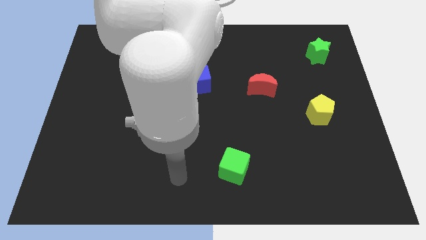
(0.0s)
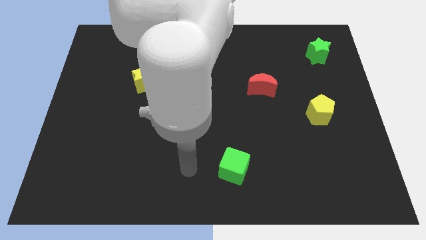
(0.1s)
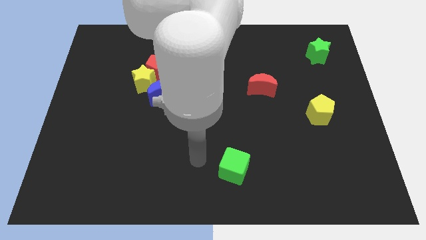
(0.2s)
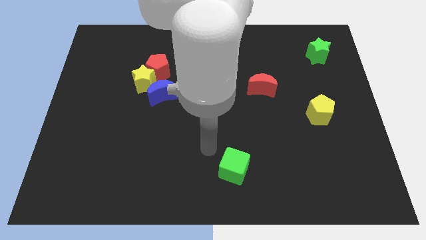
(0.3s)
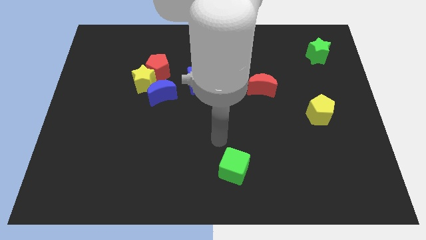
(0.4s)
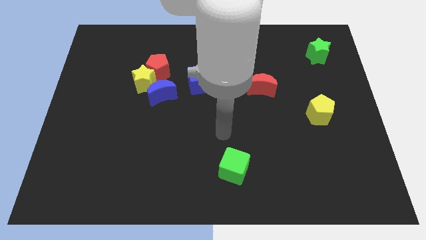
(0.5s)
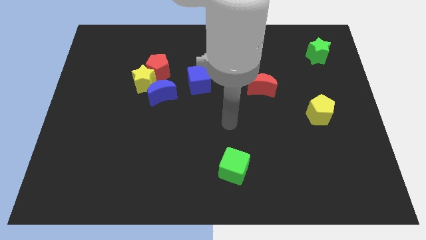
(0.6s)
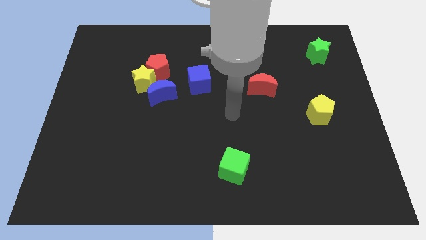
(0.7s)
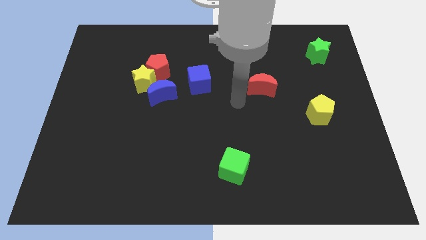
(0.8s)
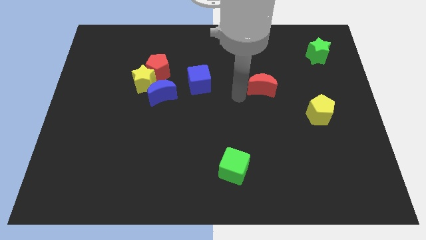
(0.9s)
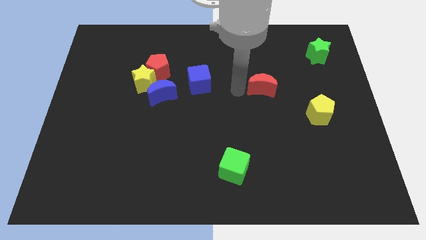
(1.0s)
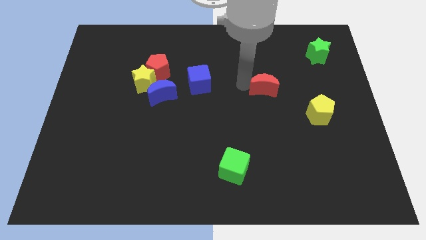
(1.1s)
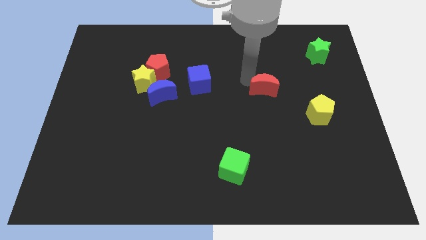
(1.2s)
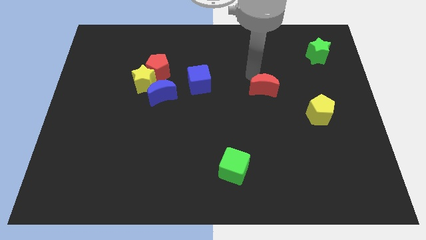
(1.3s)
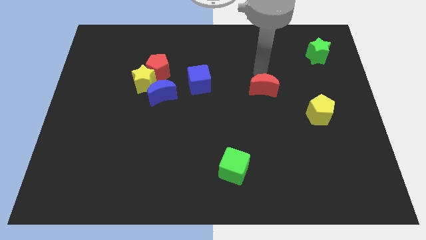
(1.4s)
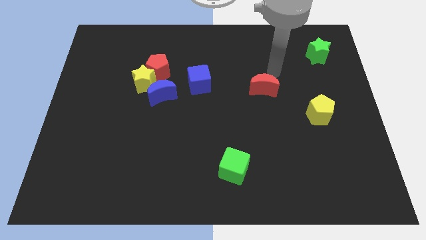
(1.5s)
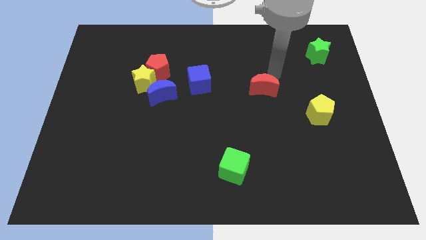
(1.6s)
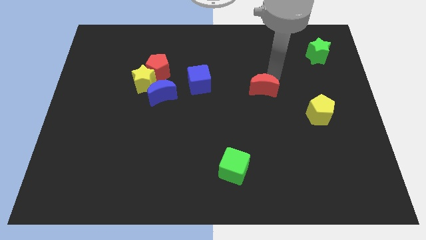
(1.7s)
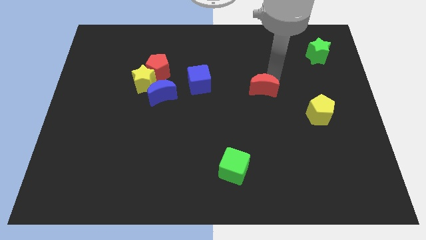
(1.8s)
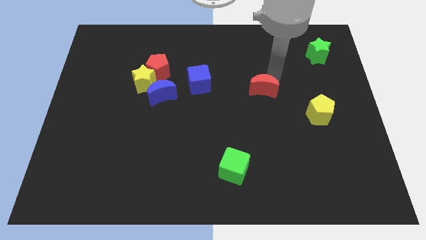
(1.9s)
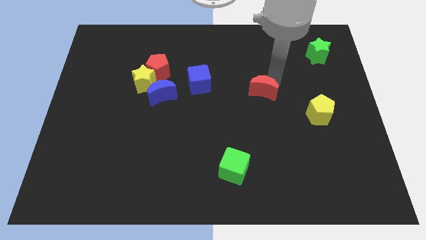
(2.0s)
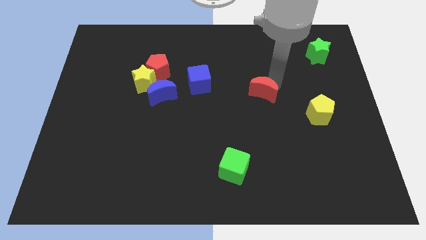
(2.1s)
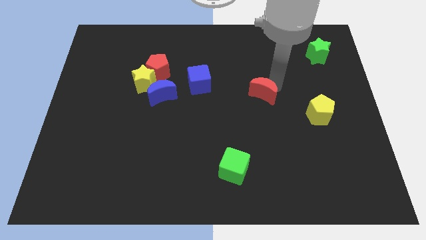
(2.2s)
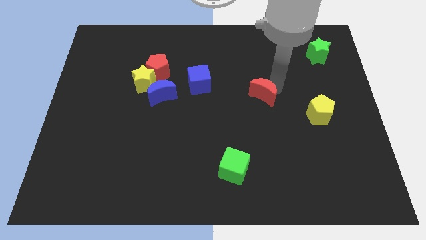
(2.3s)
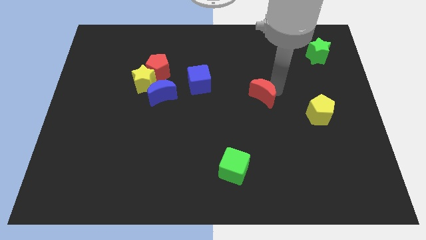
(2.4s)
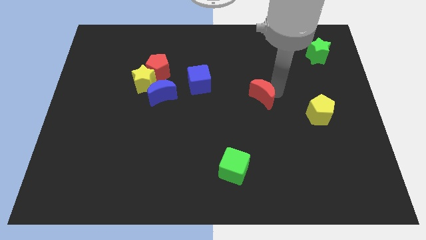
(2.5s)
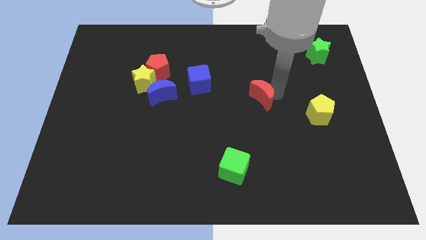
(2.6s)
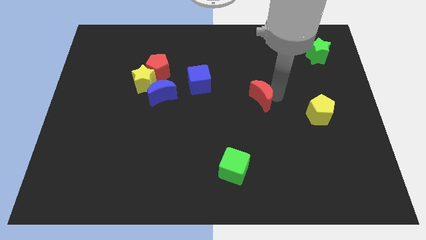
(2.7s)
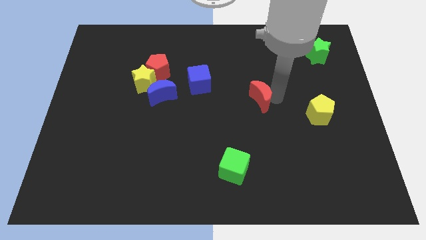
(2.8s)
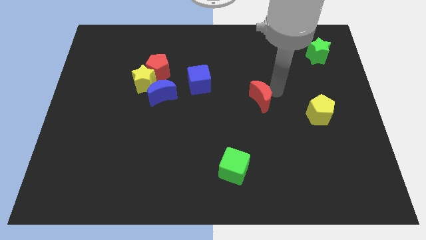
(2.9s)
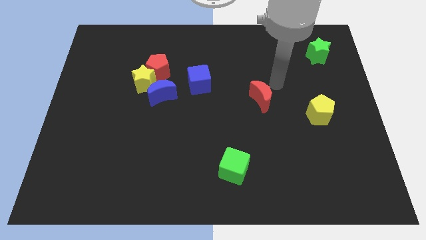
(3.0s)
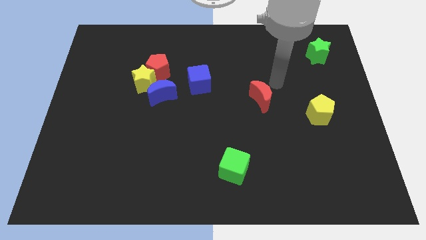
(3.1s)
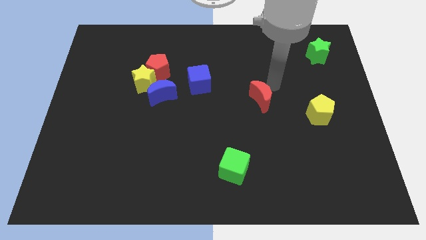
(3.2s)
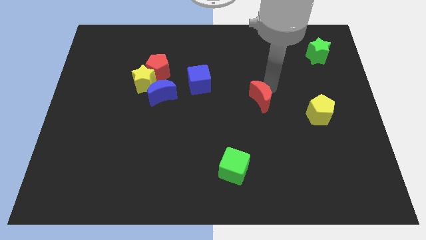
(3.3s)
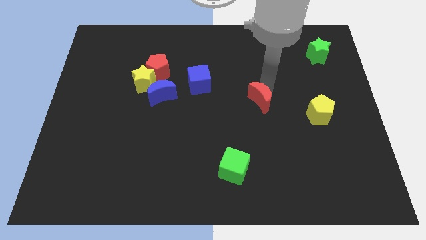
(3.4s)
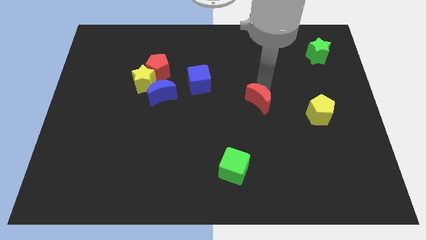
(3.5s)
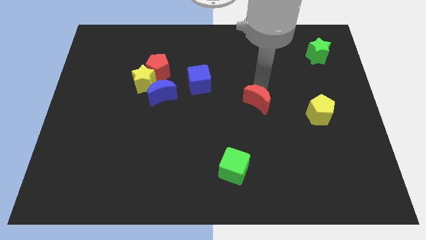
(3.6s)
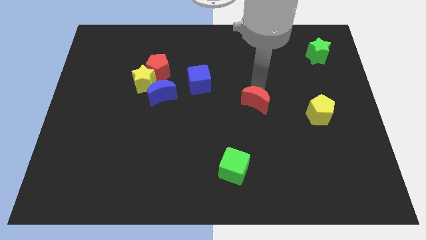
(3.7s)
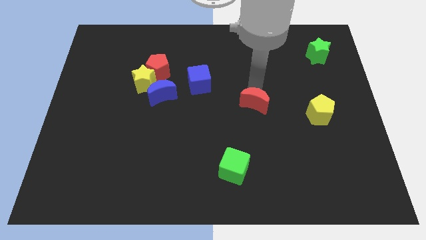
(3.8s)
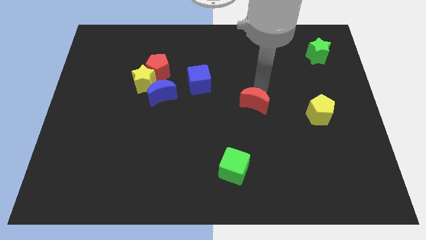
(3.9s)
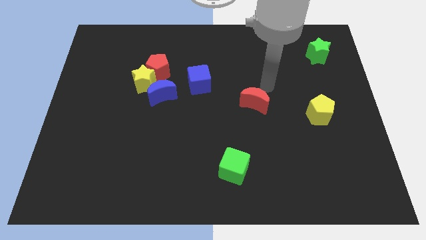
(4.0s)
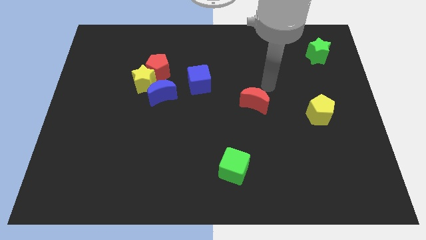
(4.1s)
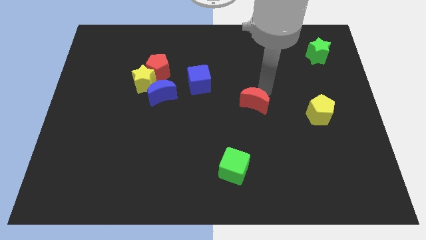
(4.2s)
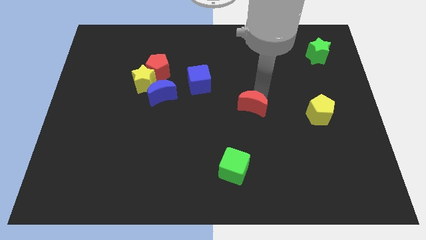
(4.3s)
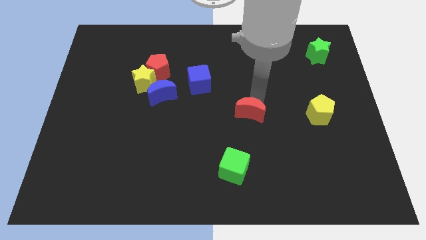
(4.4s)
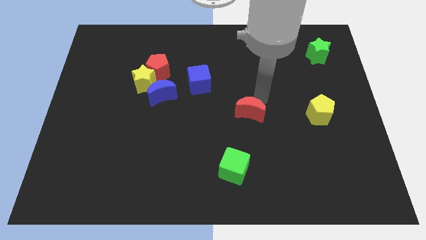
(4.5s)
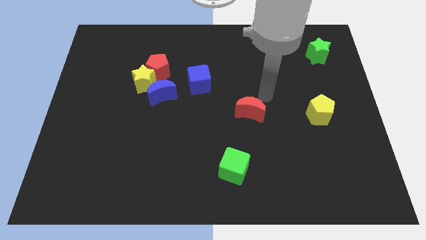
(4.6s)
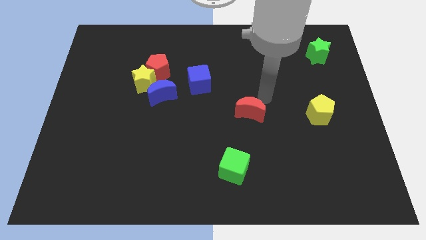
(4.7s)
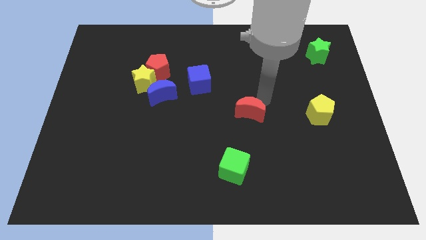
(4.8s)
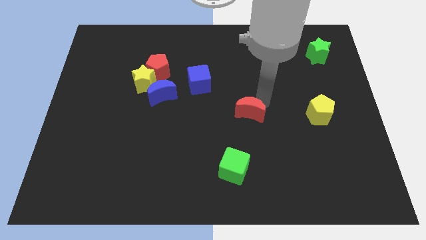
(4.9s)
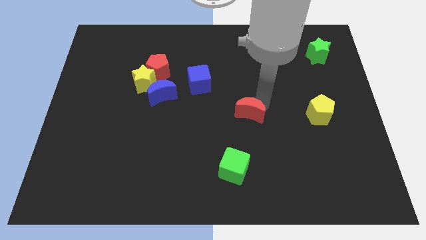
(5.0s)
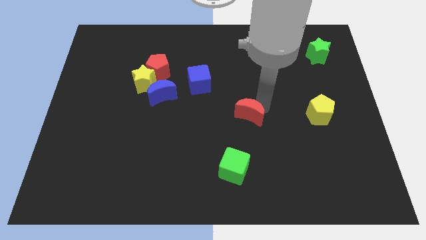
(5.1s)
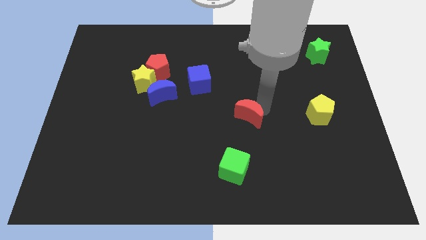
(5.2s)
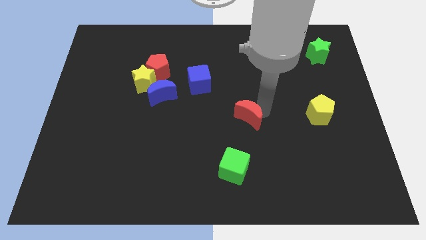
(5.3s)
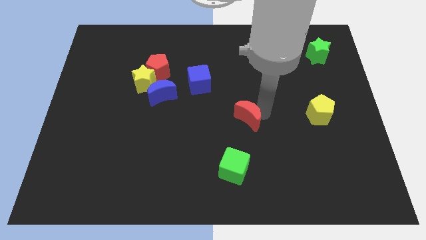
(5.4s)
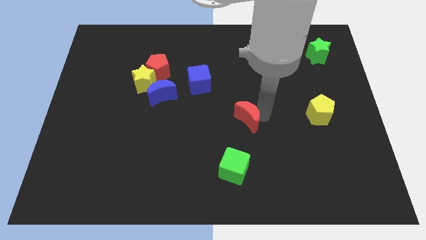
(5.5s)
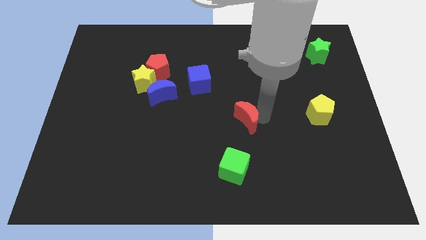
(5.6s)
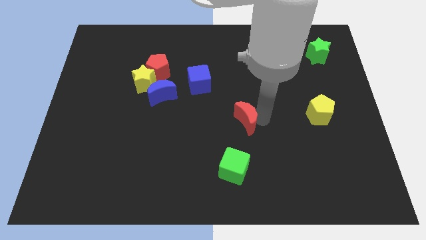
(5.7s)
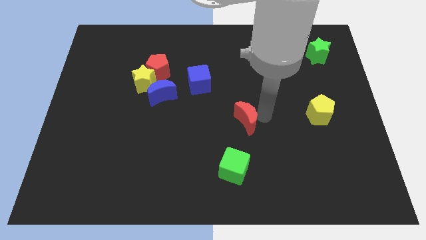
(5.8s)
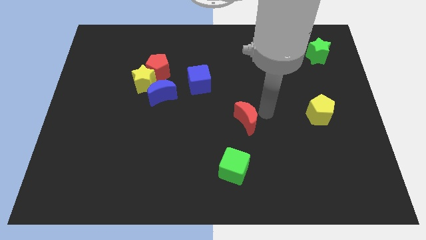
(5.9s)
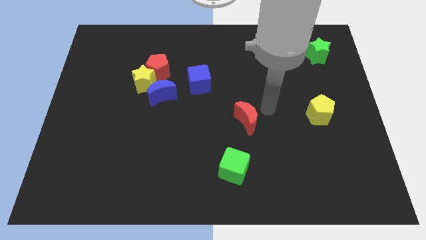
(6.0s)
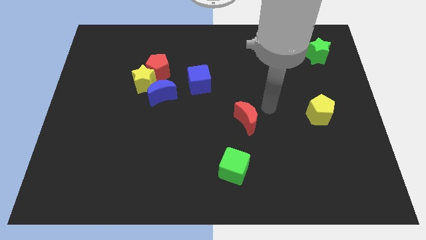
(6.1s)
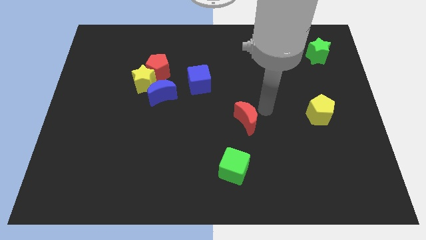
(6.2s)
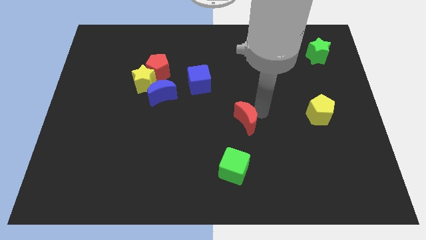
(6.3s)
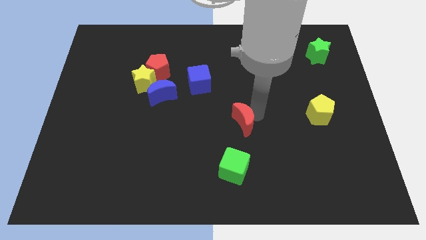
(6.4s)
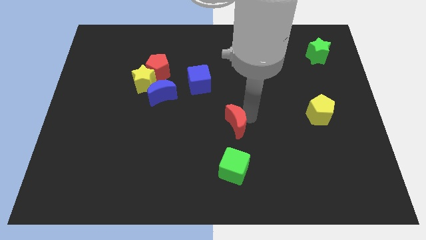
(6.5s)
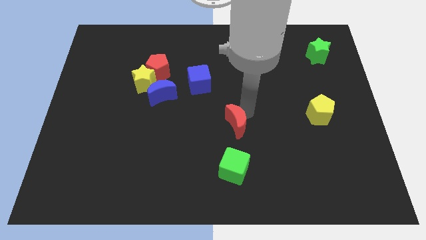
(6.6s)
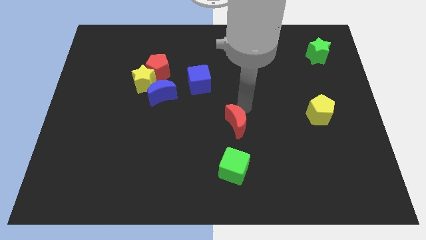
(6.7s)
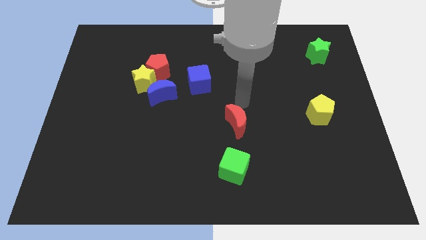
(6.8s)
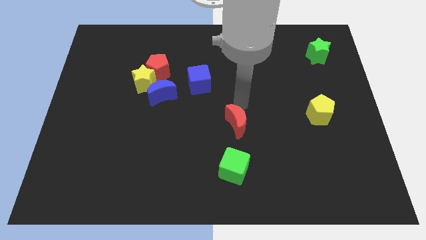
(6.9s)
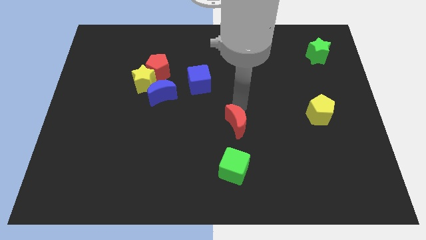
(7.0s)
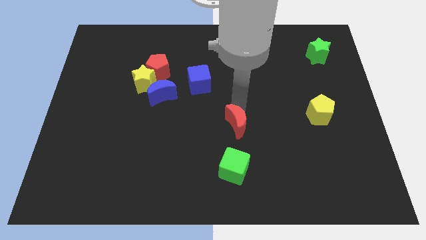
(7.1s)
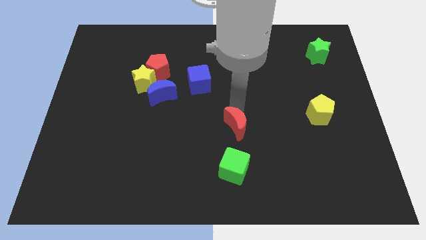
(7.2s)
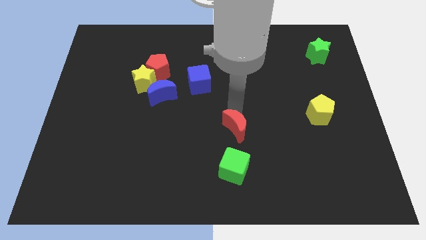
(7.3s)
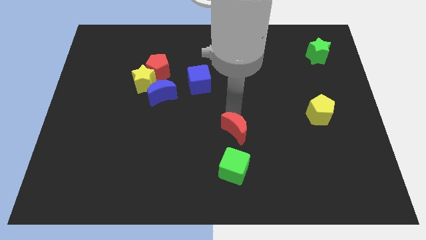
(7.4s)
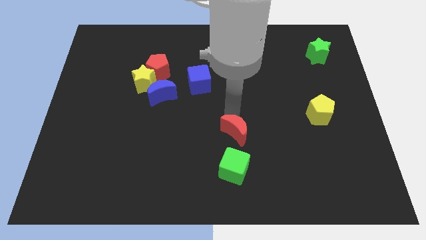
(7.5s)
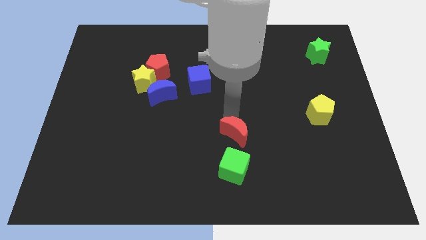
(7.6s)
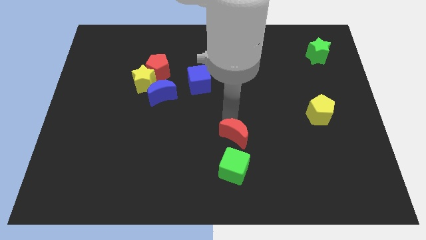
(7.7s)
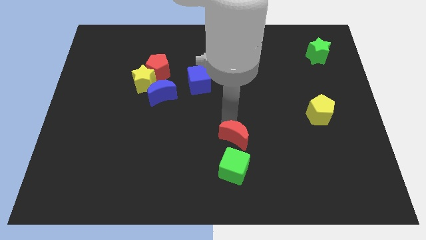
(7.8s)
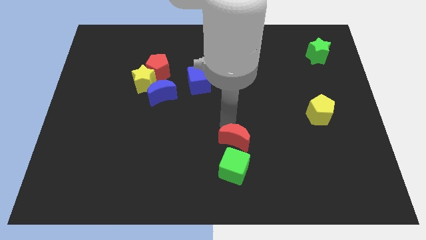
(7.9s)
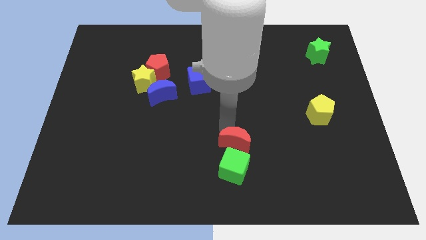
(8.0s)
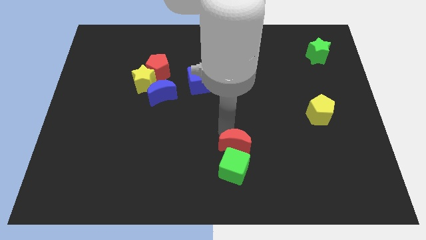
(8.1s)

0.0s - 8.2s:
move the red moon to the green cube
